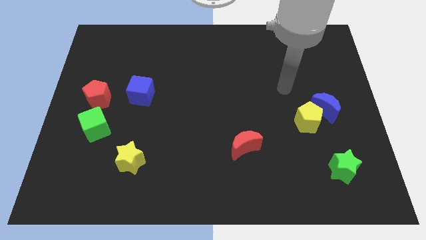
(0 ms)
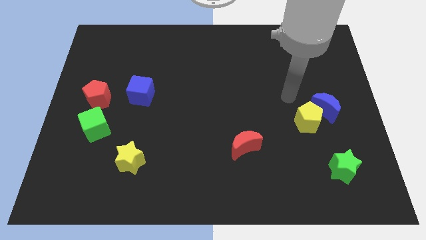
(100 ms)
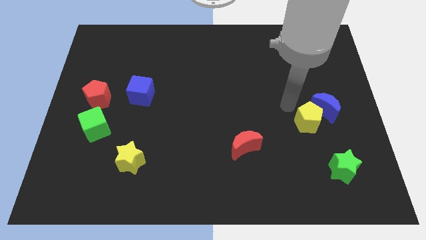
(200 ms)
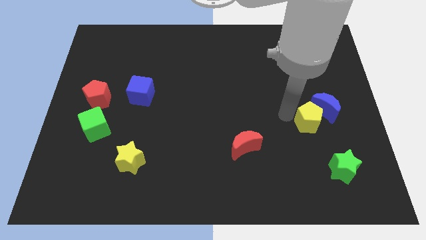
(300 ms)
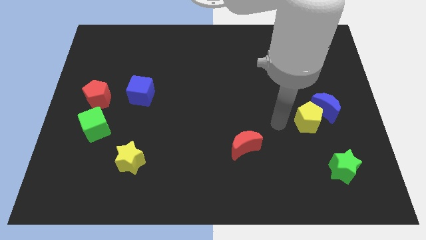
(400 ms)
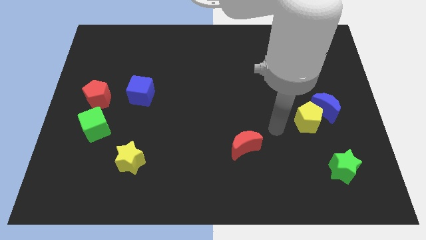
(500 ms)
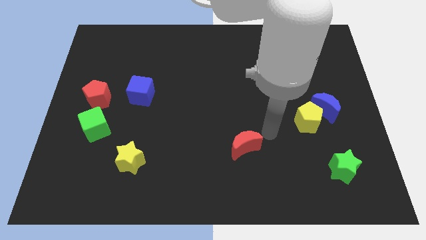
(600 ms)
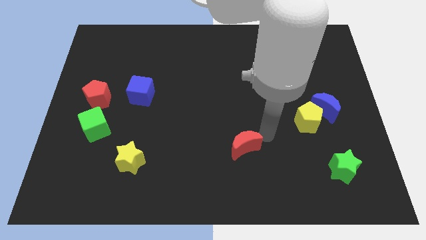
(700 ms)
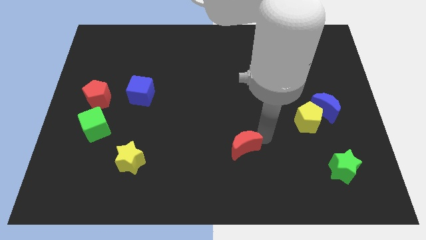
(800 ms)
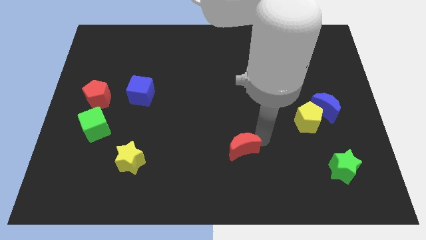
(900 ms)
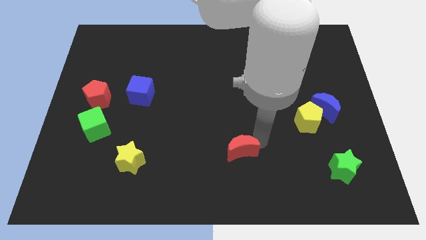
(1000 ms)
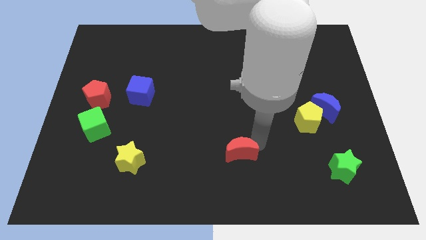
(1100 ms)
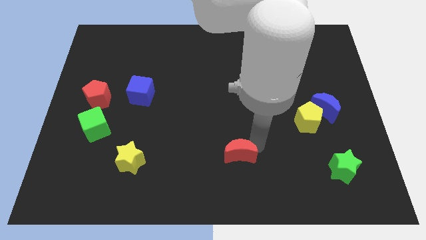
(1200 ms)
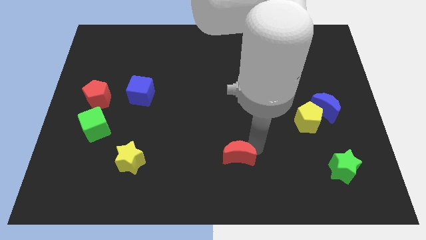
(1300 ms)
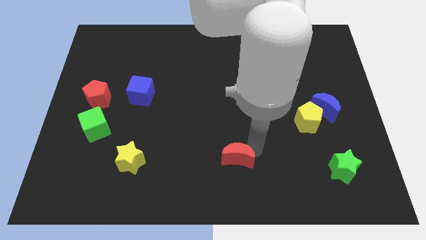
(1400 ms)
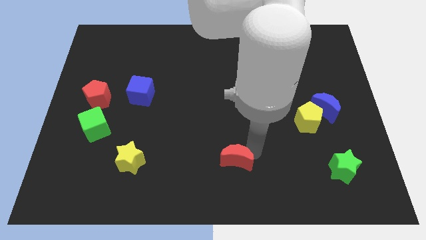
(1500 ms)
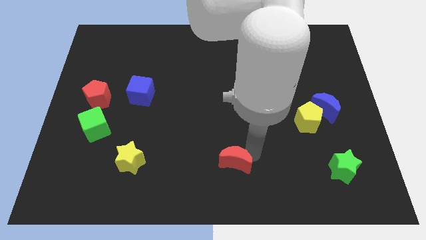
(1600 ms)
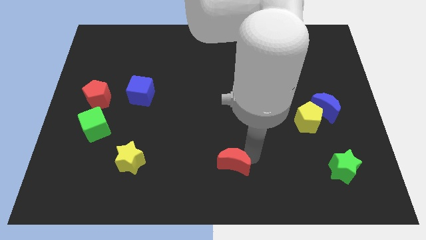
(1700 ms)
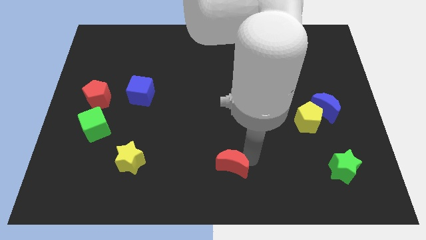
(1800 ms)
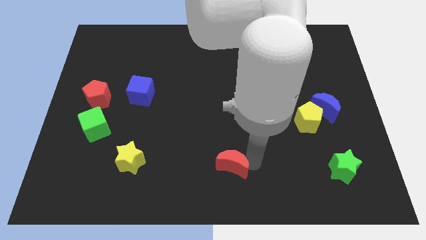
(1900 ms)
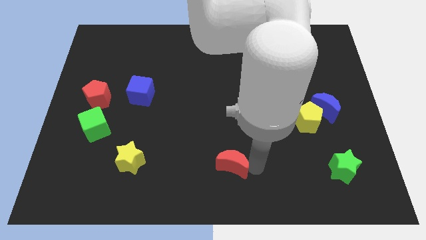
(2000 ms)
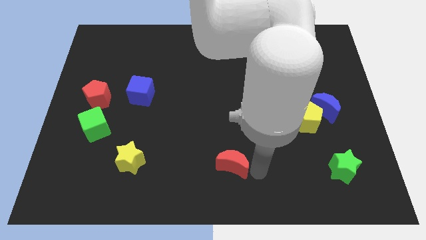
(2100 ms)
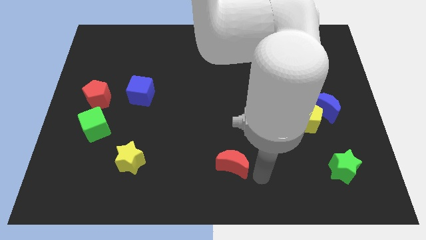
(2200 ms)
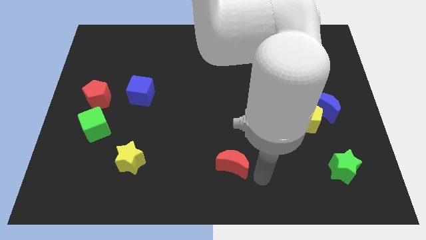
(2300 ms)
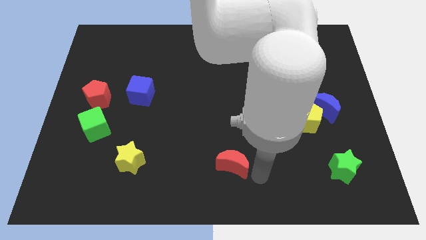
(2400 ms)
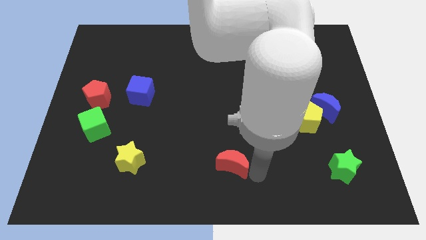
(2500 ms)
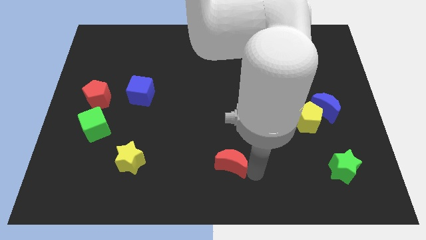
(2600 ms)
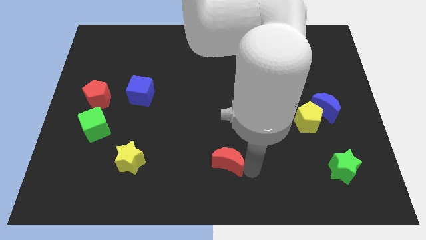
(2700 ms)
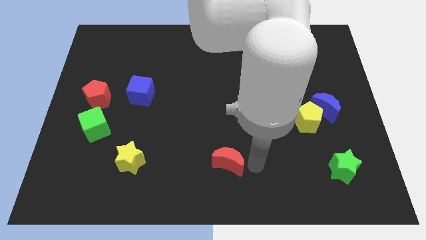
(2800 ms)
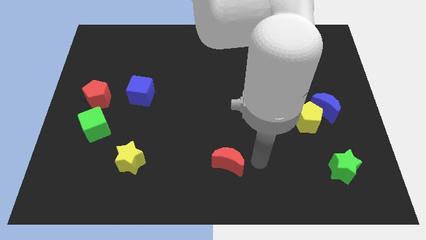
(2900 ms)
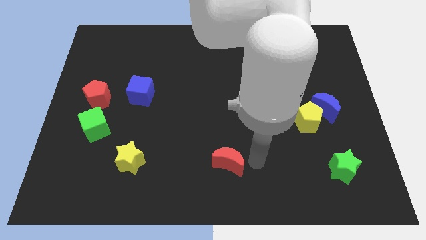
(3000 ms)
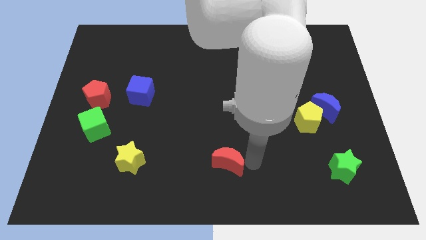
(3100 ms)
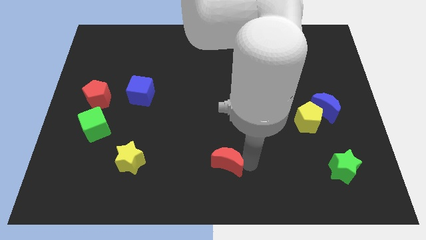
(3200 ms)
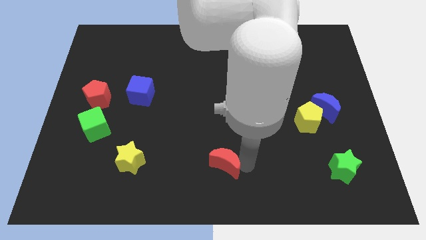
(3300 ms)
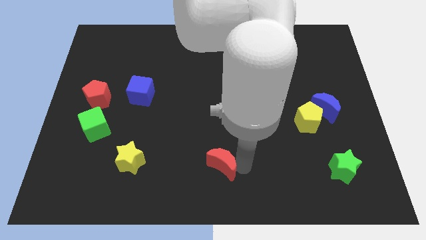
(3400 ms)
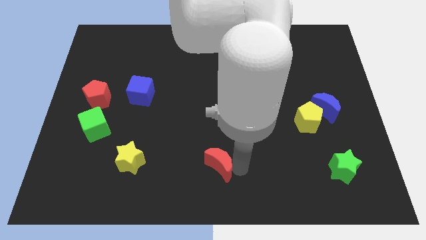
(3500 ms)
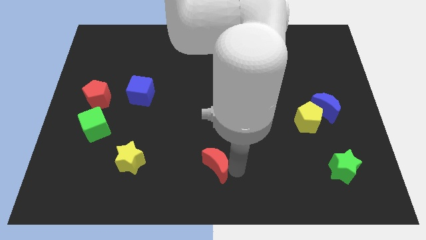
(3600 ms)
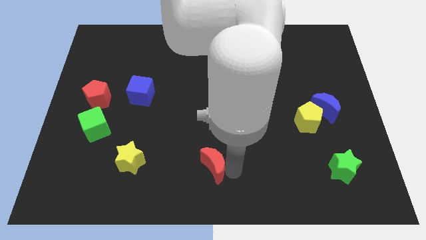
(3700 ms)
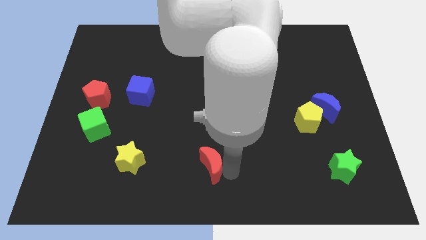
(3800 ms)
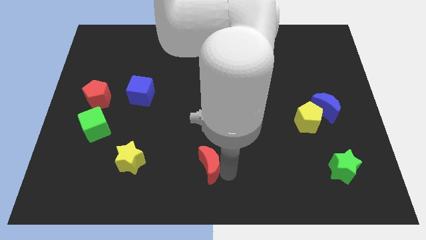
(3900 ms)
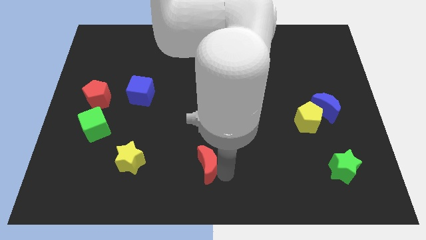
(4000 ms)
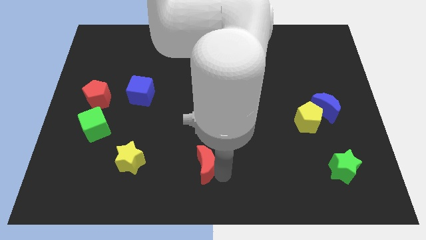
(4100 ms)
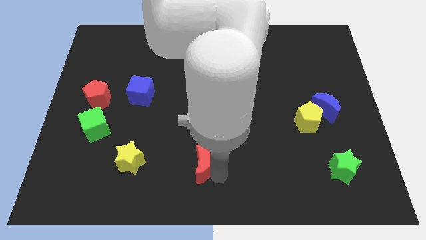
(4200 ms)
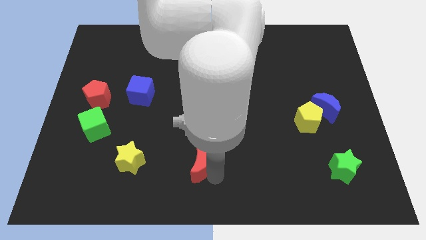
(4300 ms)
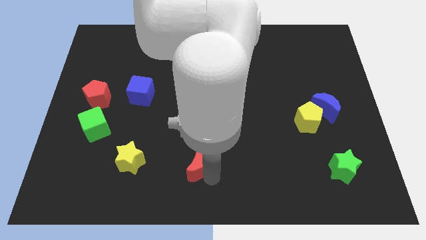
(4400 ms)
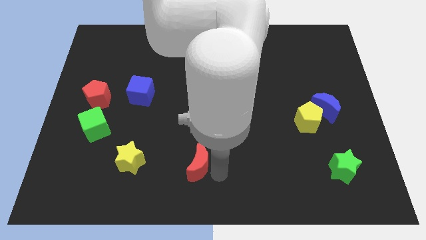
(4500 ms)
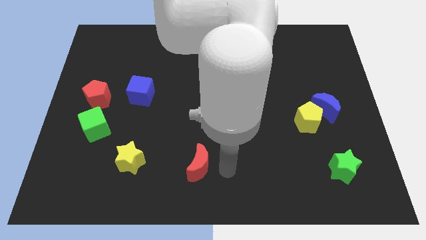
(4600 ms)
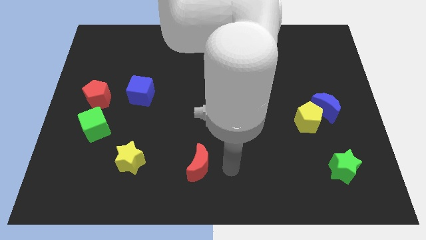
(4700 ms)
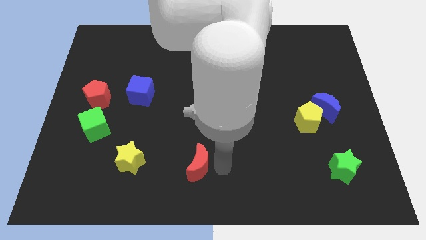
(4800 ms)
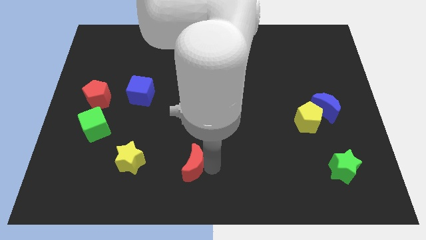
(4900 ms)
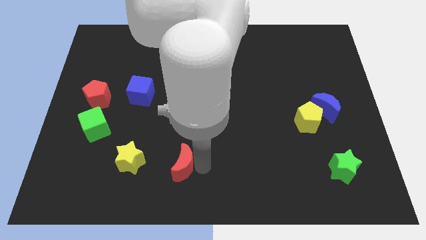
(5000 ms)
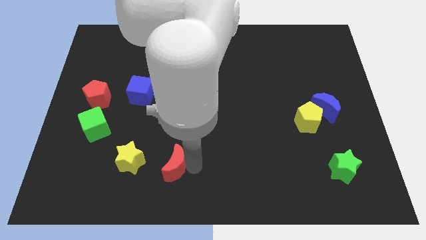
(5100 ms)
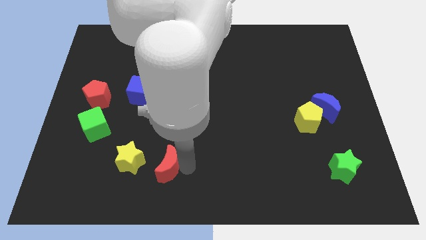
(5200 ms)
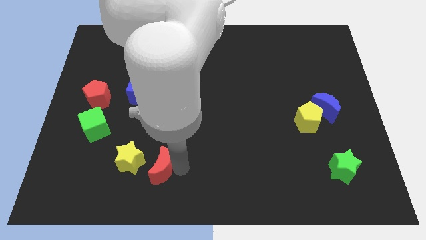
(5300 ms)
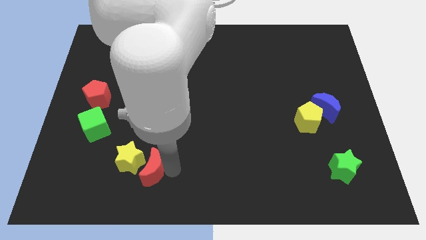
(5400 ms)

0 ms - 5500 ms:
move the red moon to the yellow star

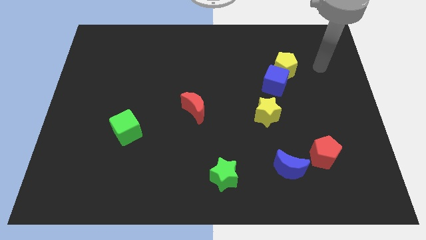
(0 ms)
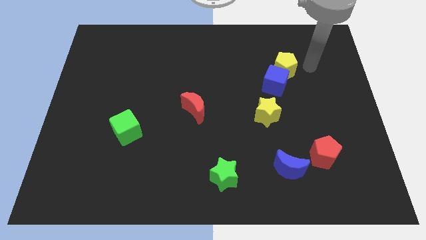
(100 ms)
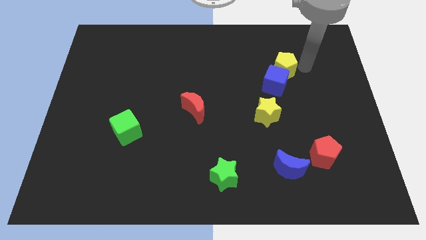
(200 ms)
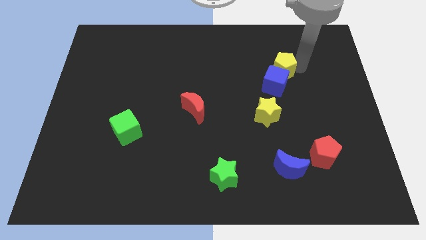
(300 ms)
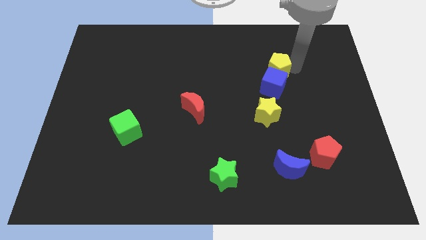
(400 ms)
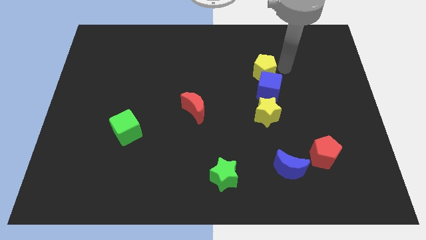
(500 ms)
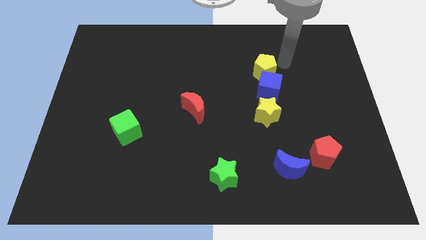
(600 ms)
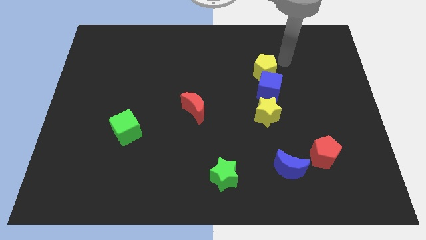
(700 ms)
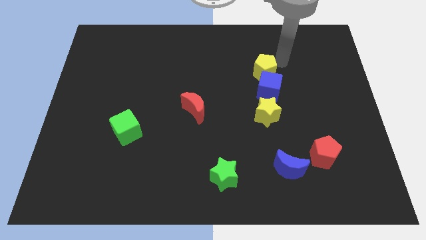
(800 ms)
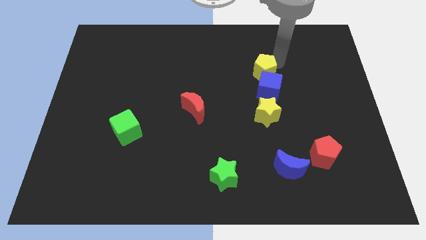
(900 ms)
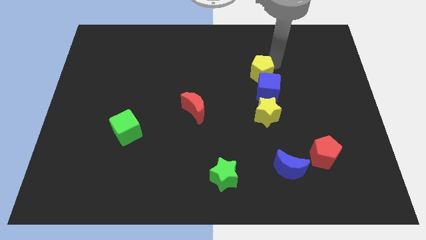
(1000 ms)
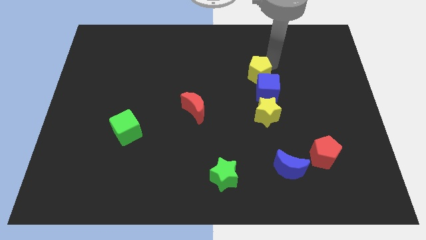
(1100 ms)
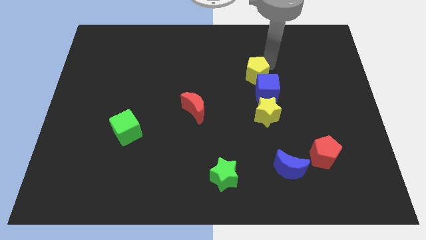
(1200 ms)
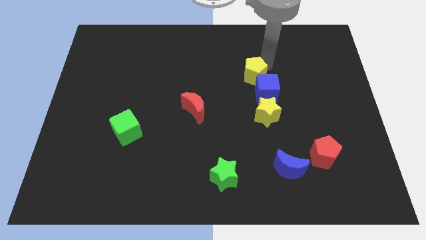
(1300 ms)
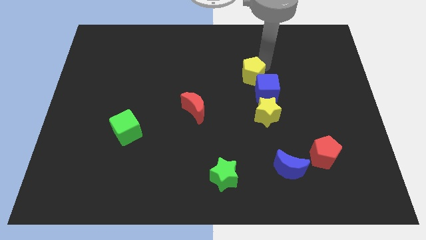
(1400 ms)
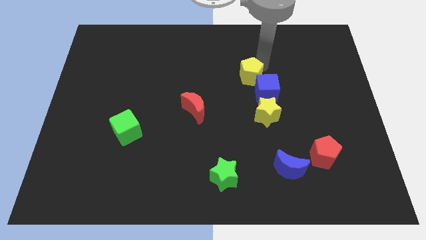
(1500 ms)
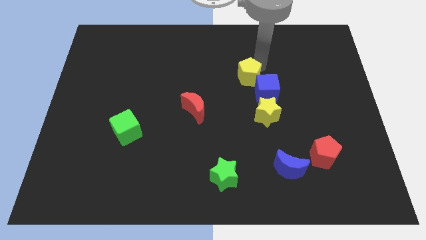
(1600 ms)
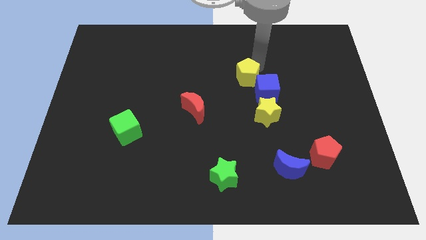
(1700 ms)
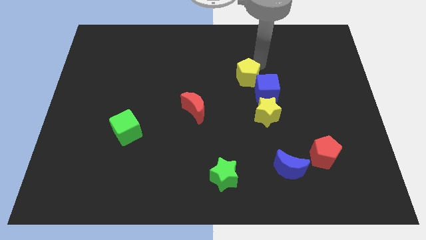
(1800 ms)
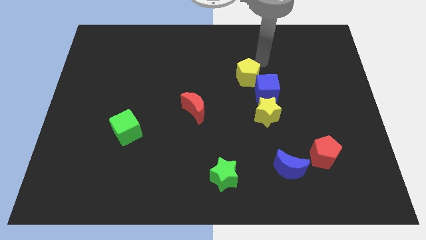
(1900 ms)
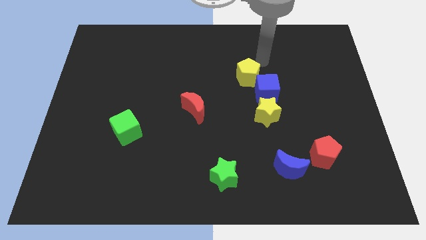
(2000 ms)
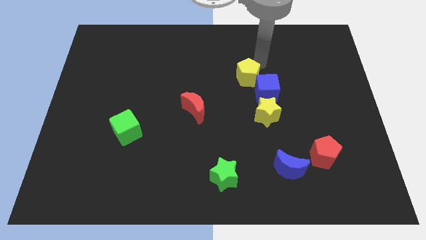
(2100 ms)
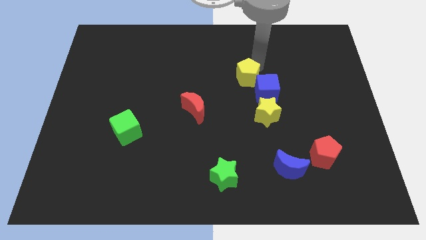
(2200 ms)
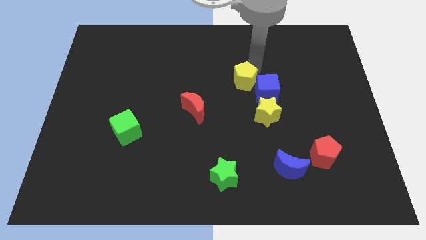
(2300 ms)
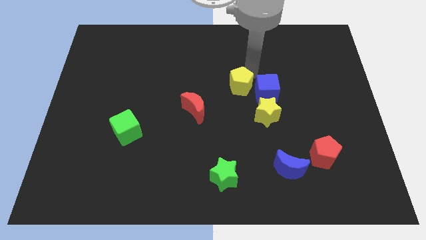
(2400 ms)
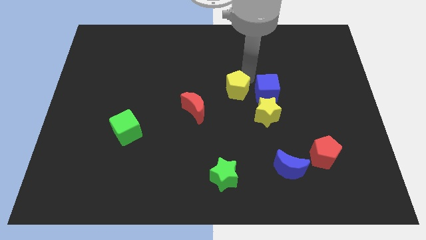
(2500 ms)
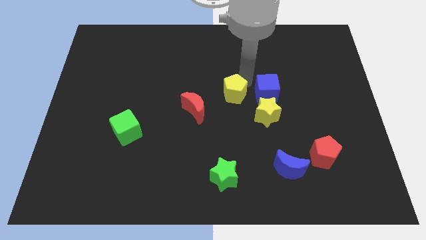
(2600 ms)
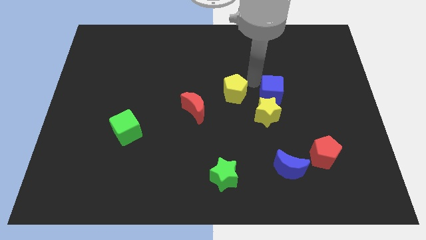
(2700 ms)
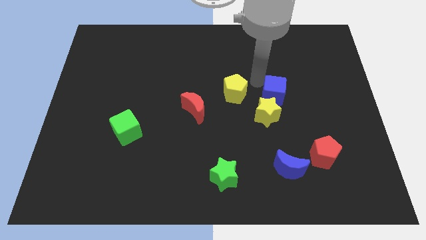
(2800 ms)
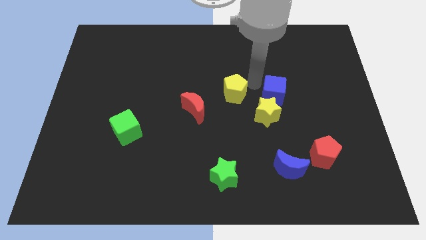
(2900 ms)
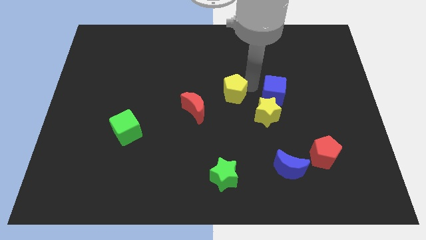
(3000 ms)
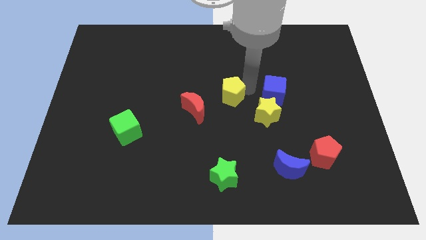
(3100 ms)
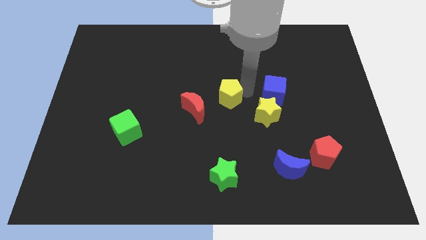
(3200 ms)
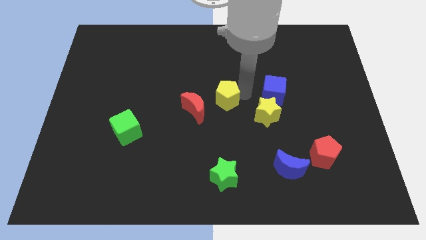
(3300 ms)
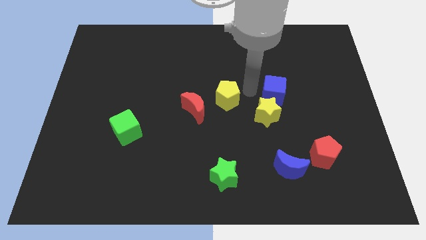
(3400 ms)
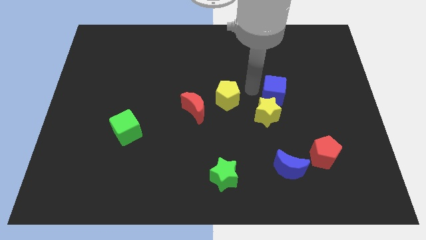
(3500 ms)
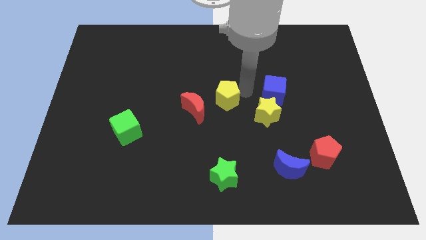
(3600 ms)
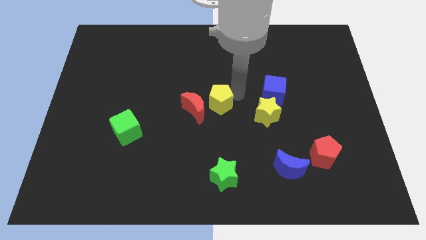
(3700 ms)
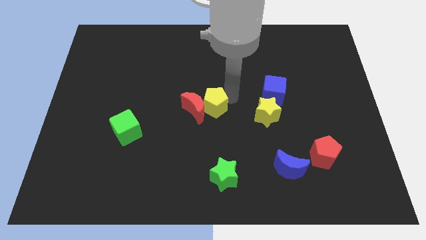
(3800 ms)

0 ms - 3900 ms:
put the yellow pentagon to the red moon
